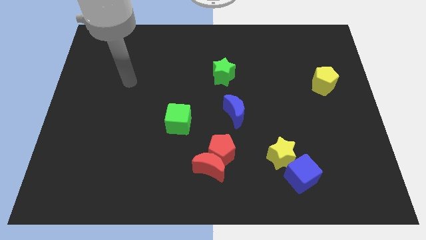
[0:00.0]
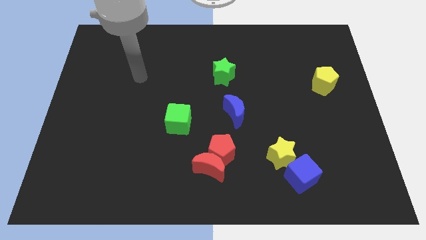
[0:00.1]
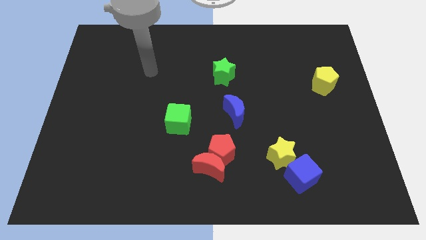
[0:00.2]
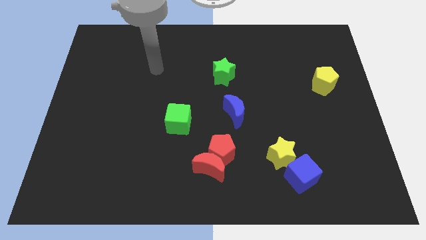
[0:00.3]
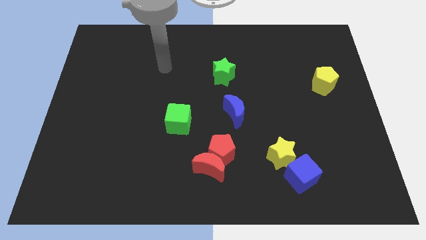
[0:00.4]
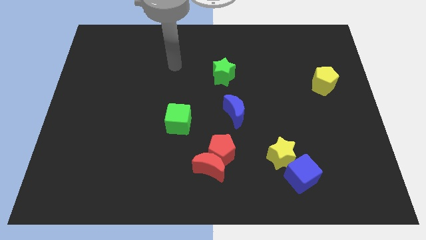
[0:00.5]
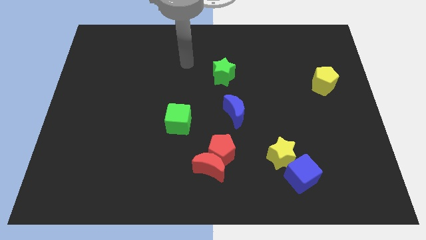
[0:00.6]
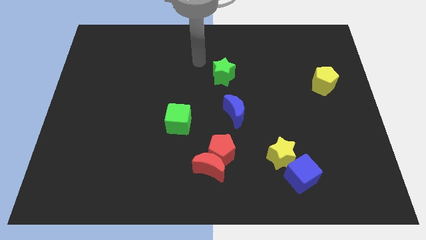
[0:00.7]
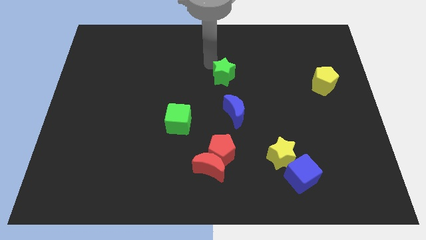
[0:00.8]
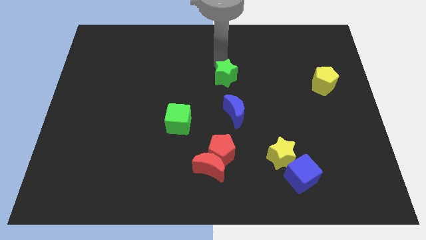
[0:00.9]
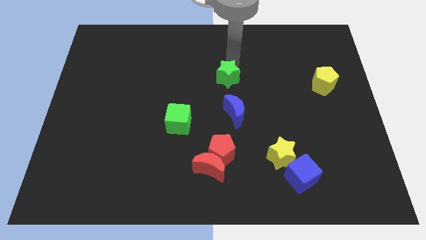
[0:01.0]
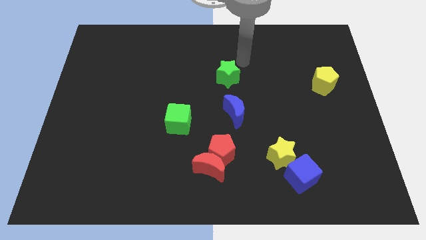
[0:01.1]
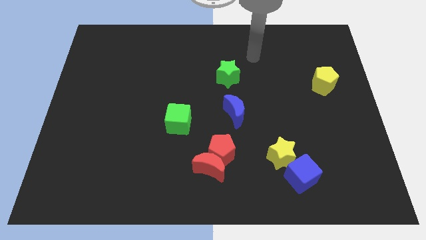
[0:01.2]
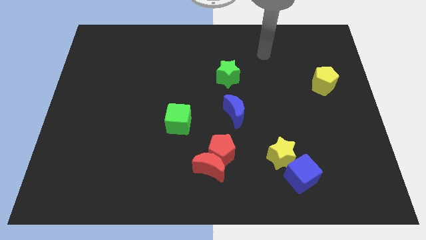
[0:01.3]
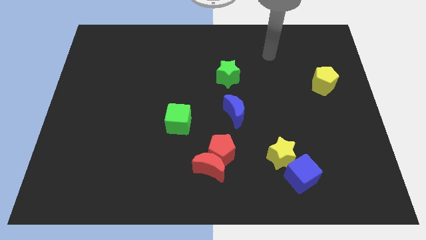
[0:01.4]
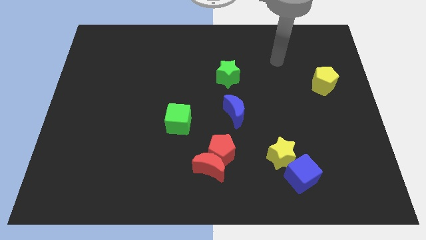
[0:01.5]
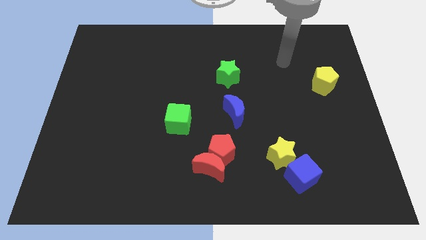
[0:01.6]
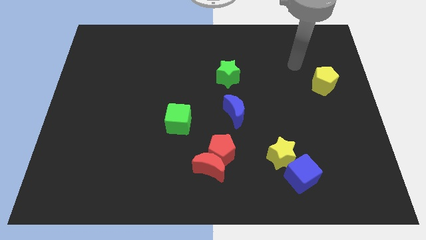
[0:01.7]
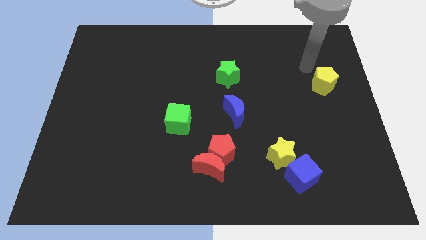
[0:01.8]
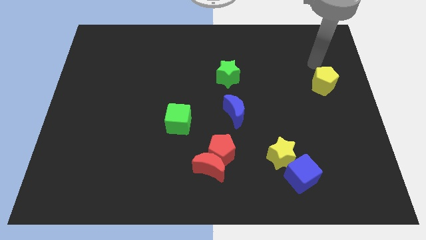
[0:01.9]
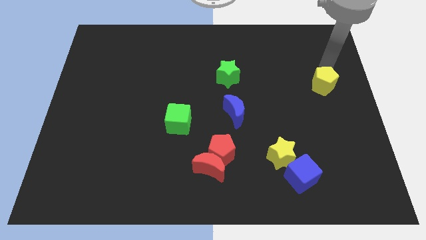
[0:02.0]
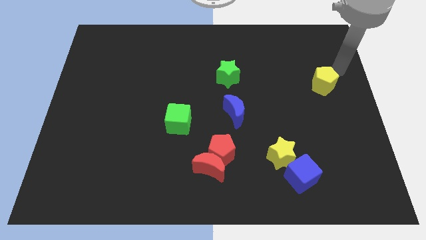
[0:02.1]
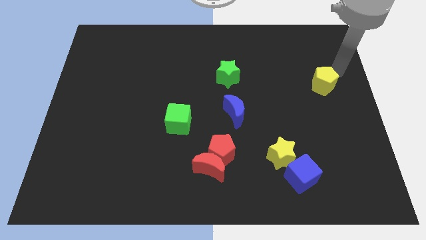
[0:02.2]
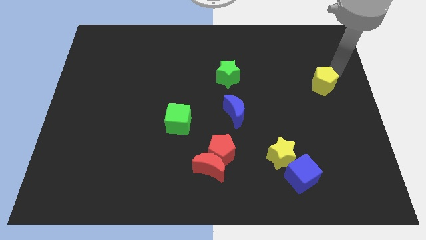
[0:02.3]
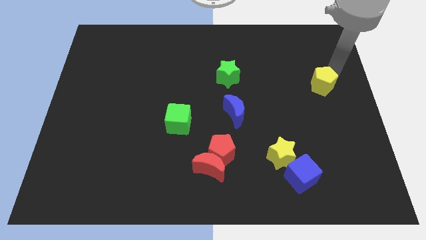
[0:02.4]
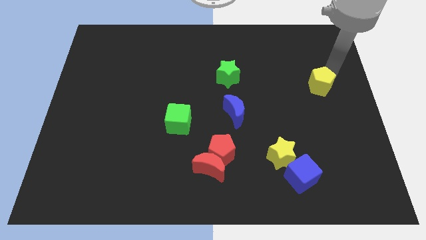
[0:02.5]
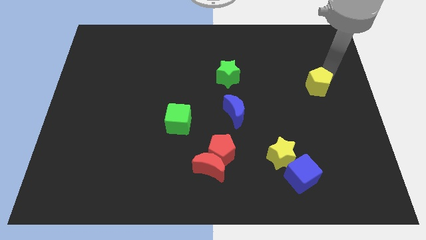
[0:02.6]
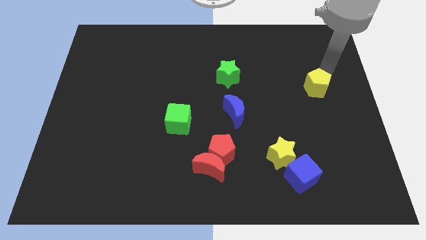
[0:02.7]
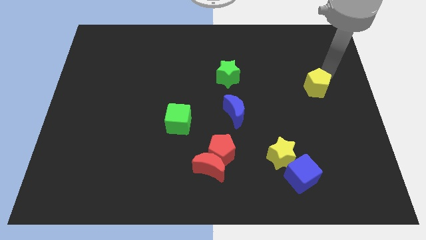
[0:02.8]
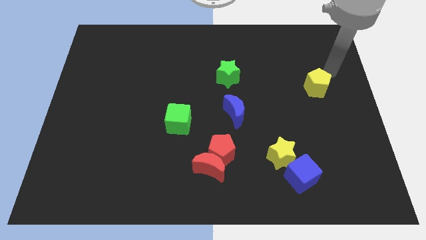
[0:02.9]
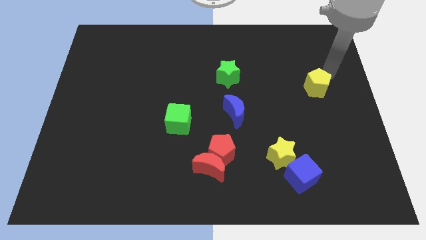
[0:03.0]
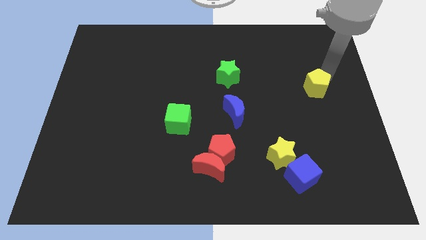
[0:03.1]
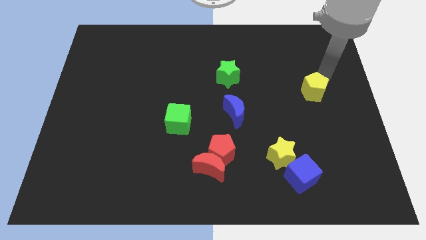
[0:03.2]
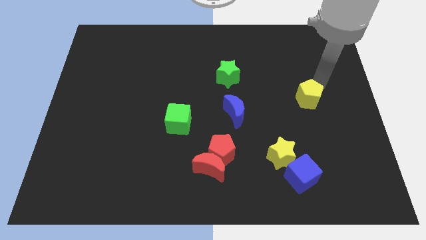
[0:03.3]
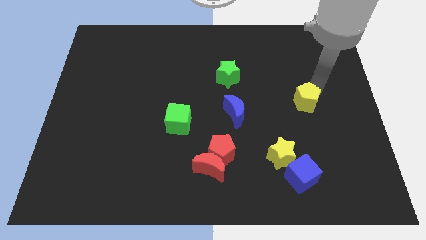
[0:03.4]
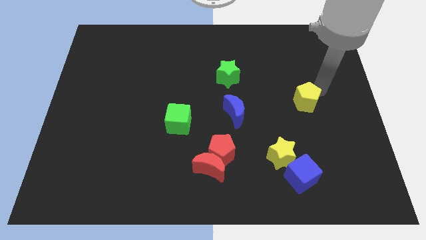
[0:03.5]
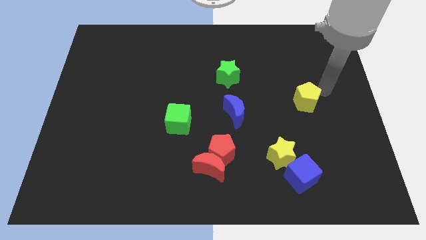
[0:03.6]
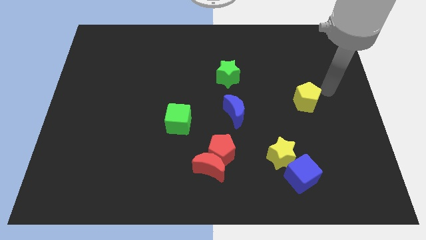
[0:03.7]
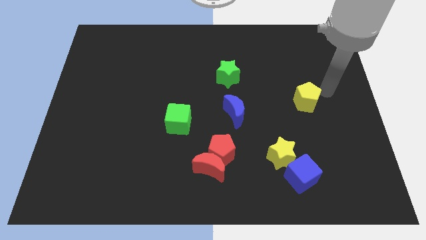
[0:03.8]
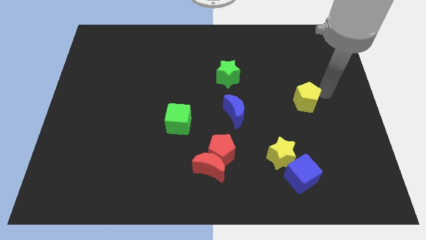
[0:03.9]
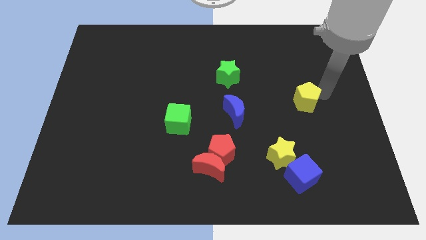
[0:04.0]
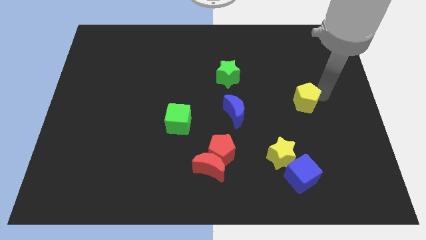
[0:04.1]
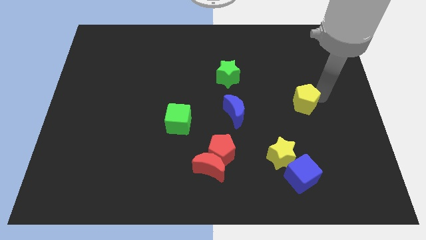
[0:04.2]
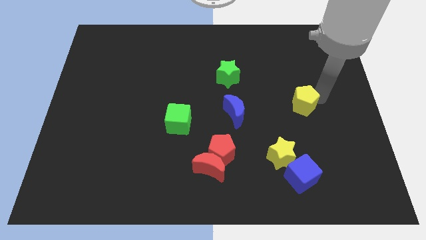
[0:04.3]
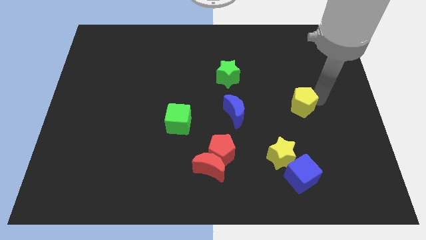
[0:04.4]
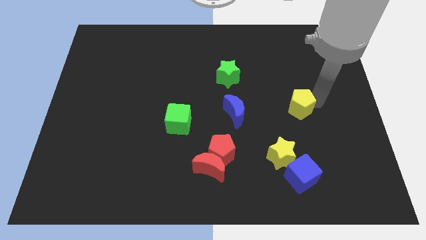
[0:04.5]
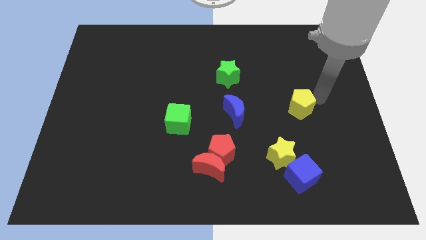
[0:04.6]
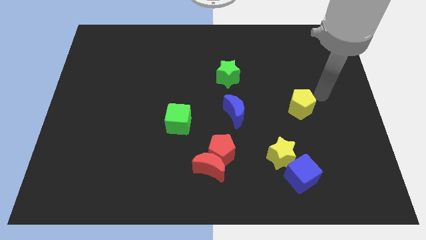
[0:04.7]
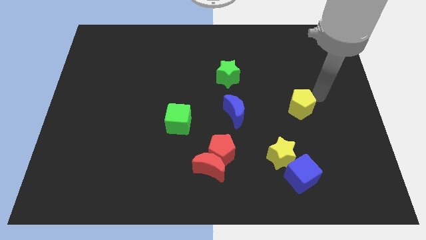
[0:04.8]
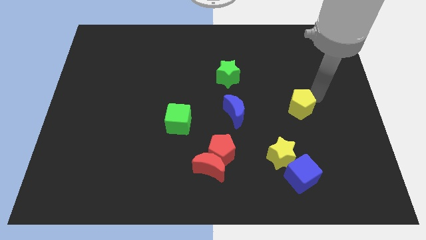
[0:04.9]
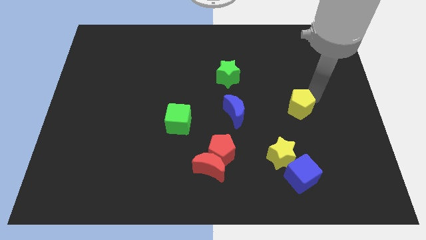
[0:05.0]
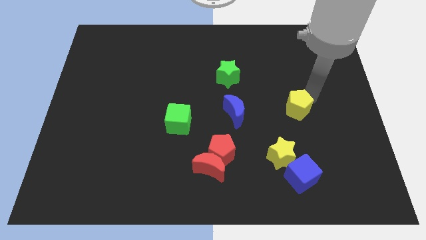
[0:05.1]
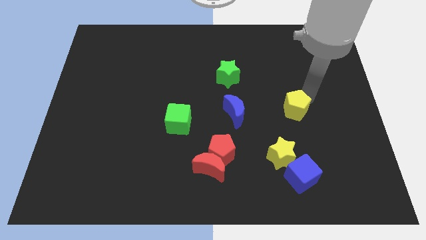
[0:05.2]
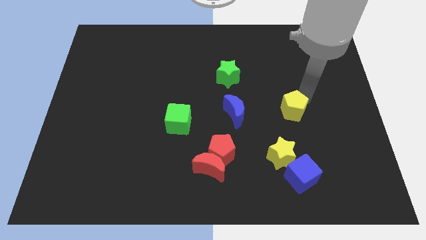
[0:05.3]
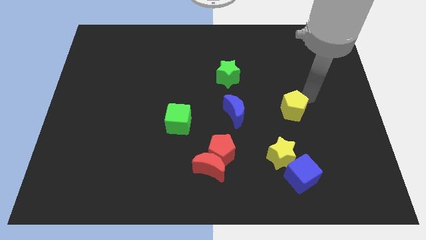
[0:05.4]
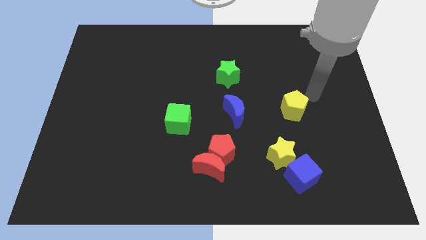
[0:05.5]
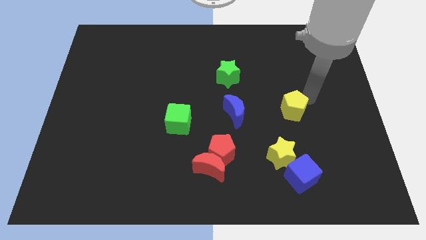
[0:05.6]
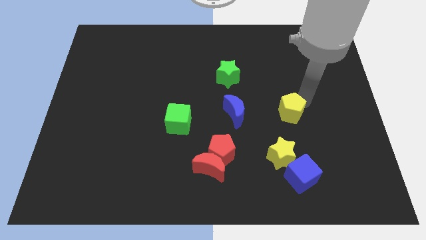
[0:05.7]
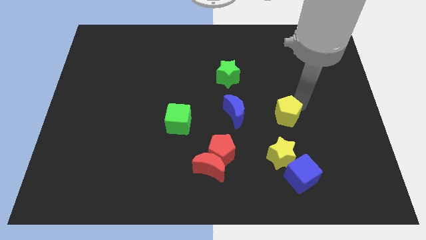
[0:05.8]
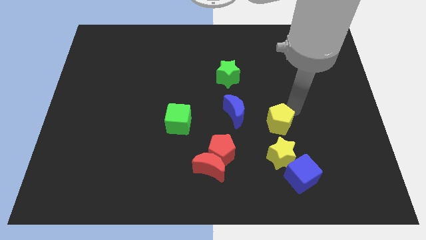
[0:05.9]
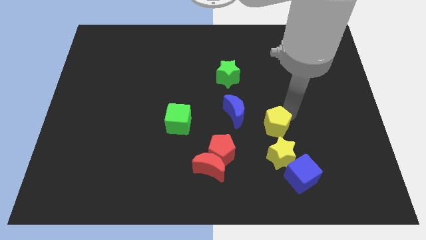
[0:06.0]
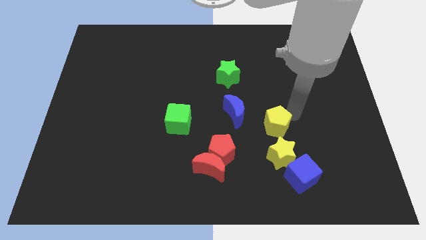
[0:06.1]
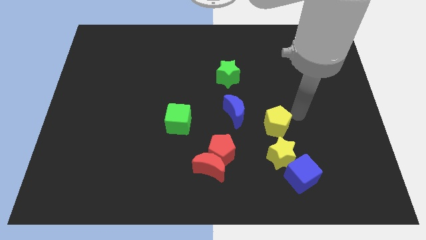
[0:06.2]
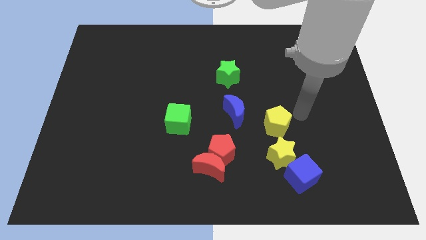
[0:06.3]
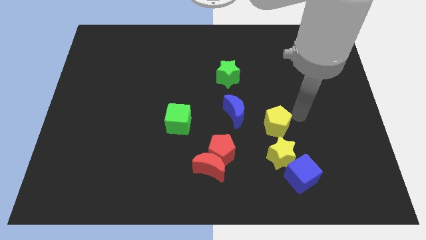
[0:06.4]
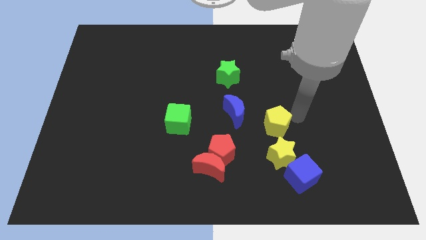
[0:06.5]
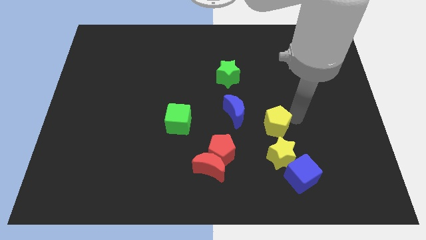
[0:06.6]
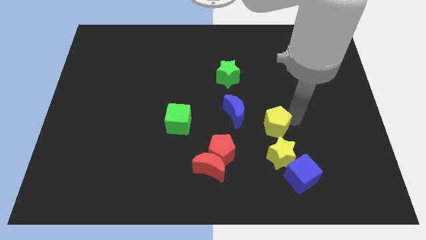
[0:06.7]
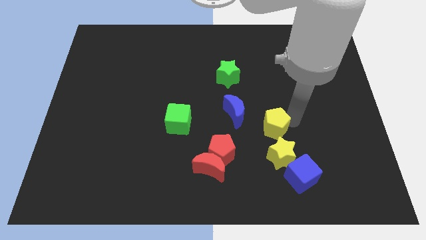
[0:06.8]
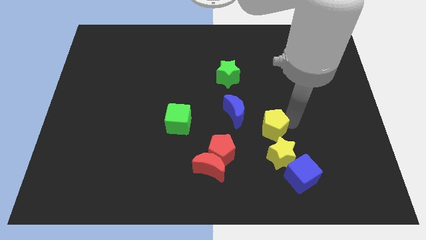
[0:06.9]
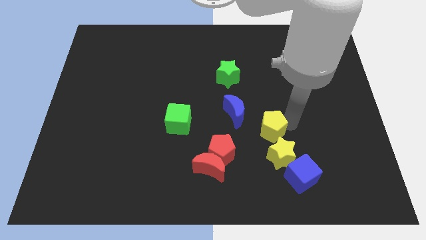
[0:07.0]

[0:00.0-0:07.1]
slide the yellow pentagon diagonally downwards and left

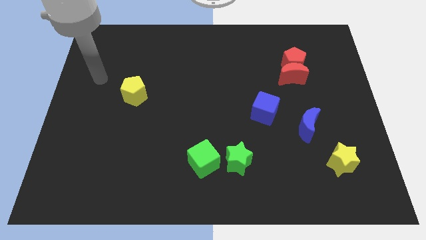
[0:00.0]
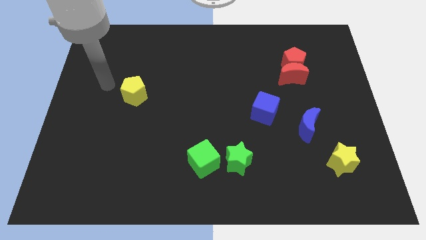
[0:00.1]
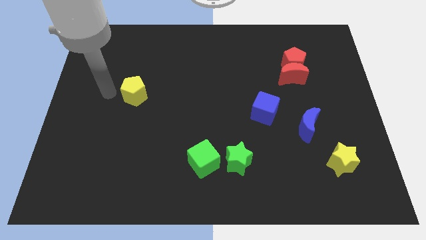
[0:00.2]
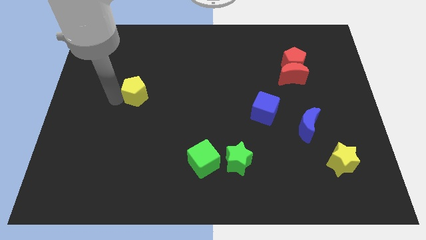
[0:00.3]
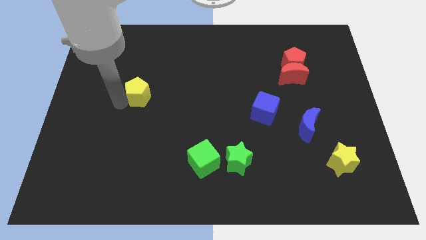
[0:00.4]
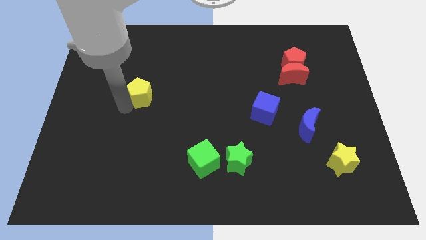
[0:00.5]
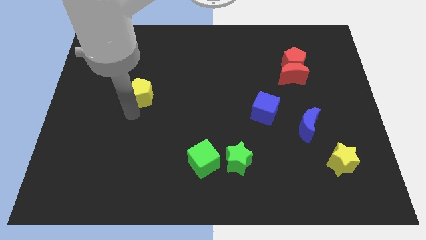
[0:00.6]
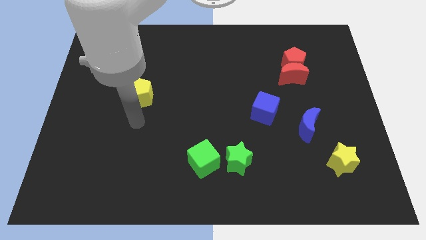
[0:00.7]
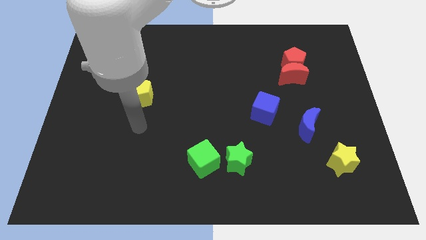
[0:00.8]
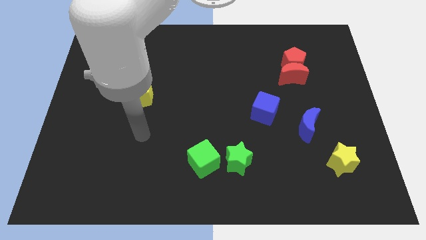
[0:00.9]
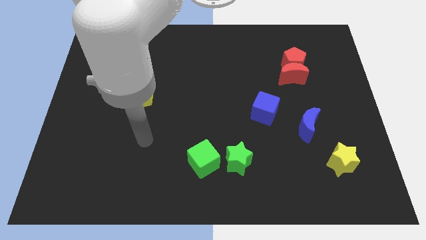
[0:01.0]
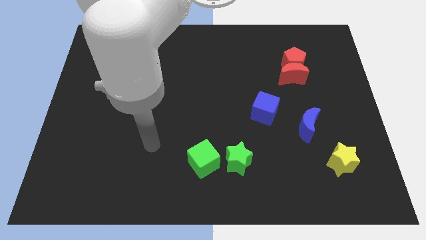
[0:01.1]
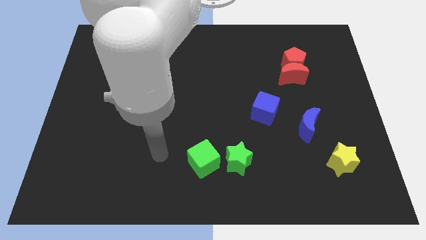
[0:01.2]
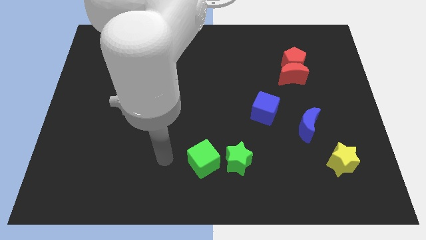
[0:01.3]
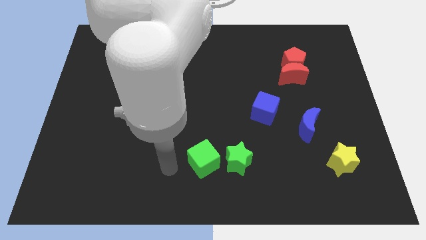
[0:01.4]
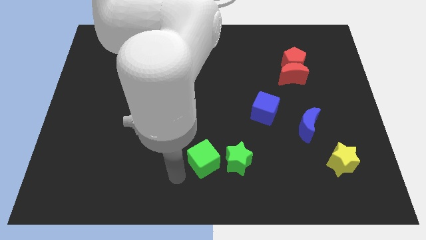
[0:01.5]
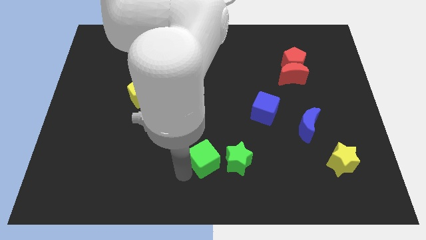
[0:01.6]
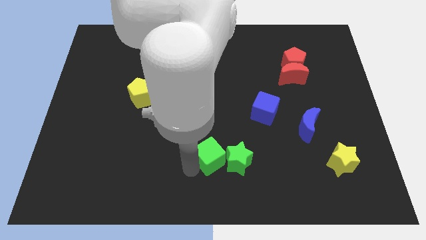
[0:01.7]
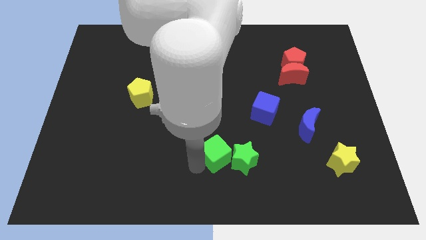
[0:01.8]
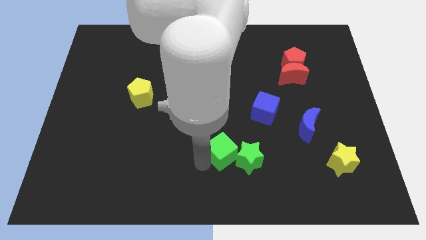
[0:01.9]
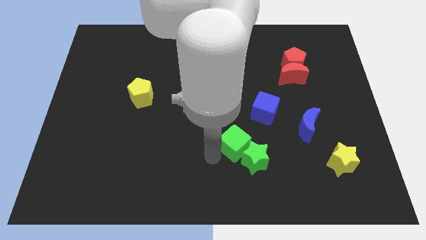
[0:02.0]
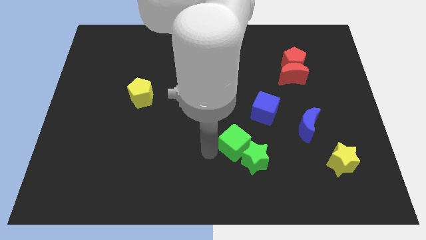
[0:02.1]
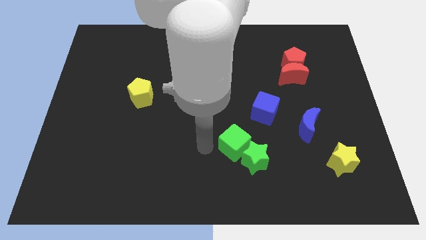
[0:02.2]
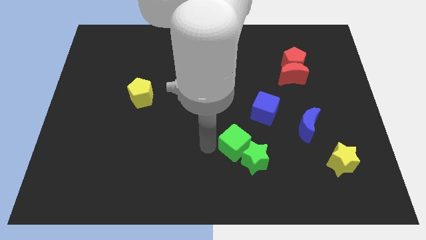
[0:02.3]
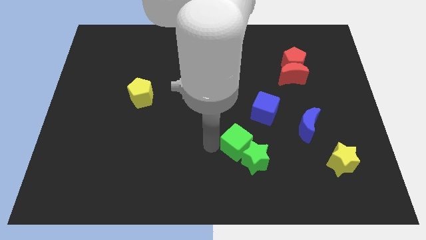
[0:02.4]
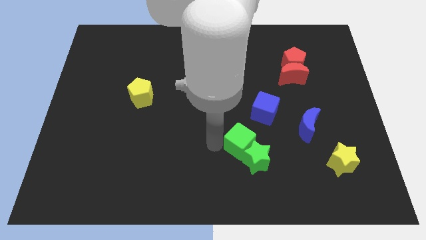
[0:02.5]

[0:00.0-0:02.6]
push the green cube somewhat to the right
